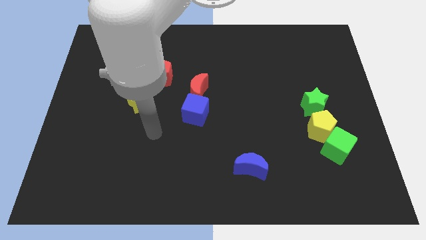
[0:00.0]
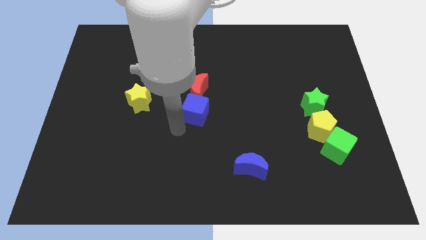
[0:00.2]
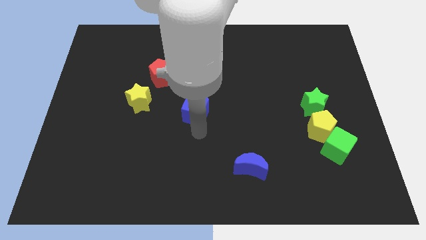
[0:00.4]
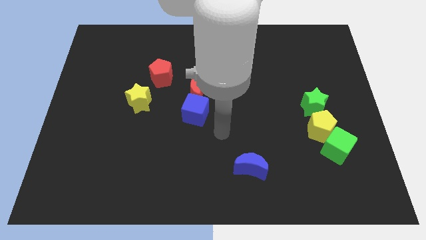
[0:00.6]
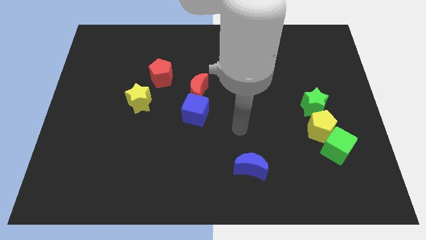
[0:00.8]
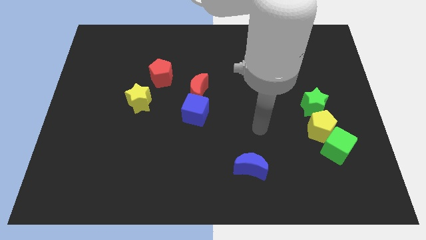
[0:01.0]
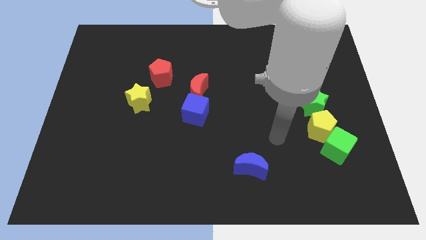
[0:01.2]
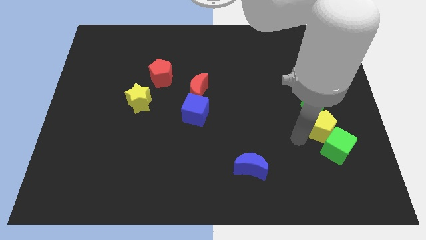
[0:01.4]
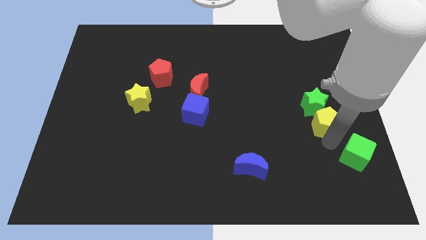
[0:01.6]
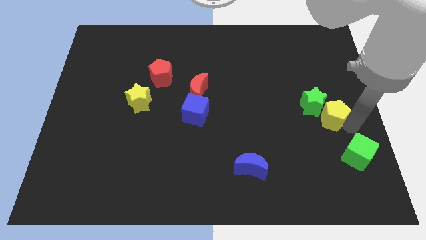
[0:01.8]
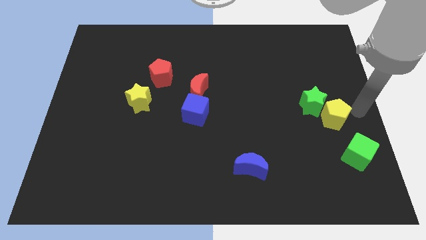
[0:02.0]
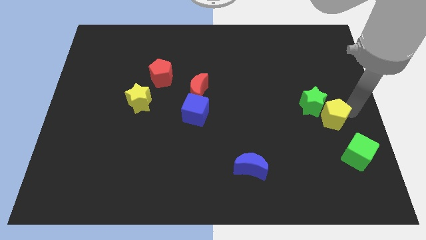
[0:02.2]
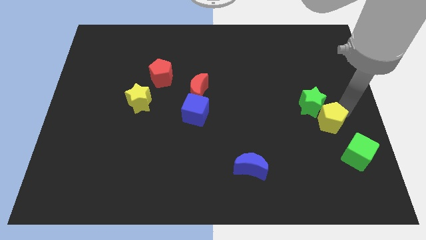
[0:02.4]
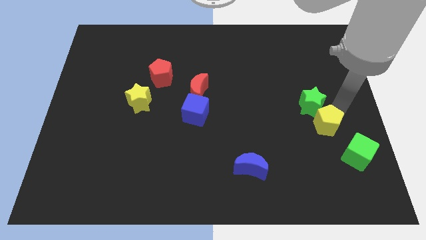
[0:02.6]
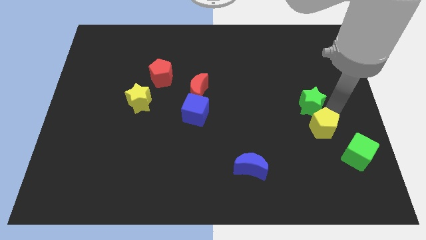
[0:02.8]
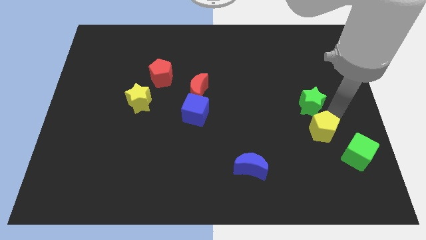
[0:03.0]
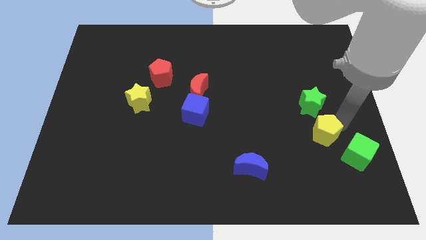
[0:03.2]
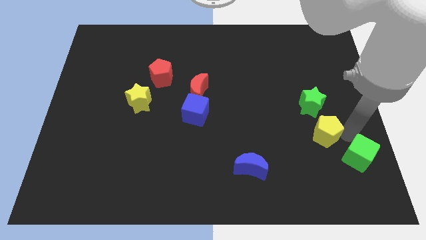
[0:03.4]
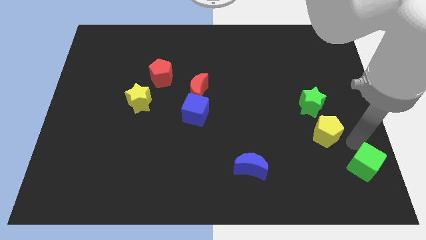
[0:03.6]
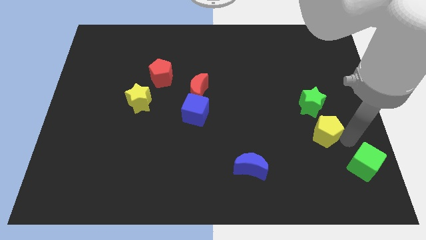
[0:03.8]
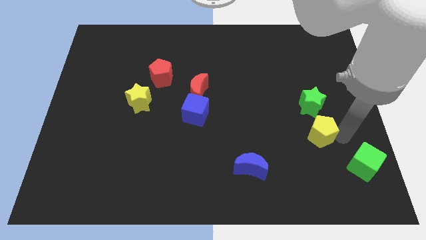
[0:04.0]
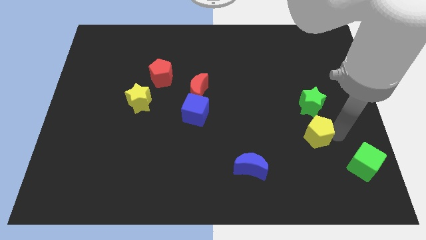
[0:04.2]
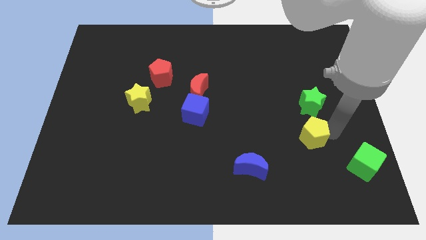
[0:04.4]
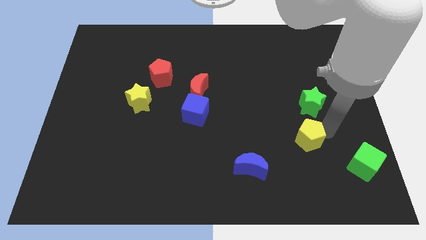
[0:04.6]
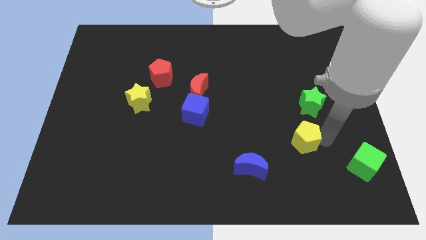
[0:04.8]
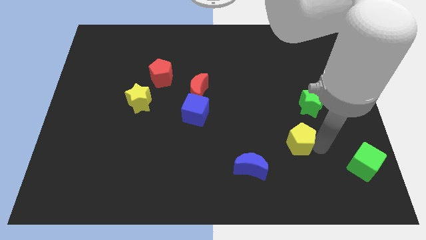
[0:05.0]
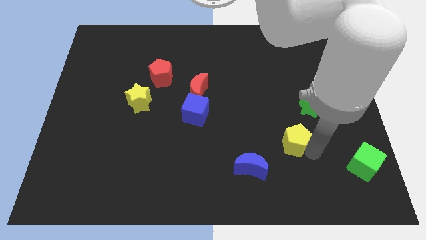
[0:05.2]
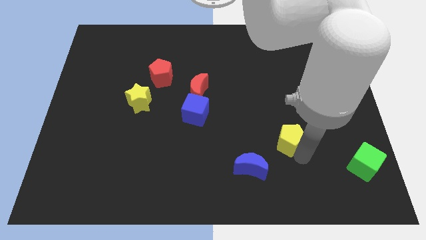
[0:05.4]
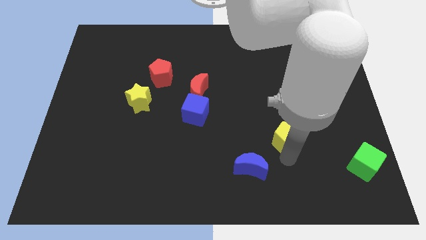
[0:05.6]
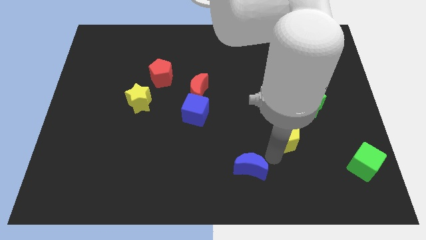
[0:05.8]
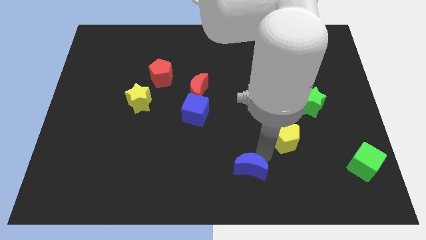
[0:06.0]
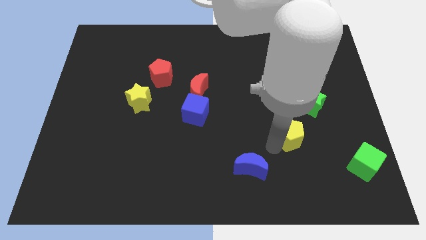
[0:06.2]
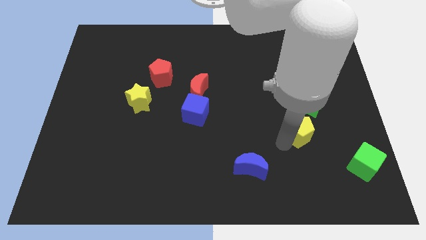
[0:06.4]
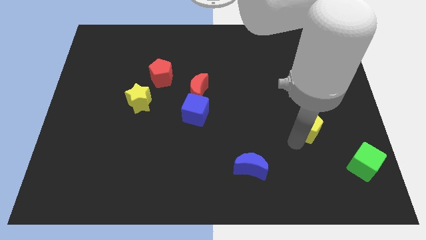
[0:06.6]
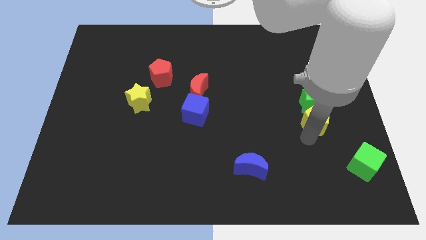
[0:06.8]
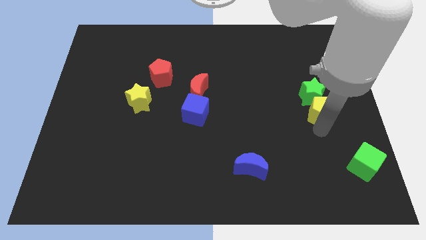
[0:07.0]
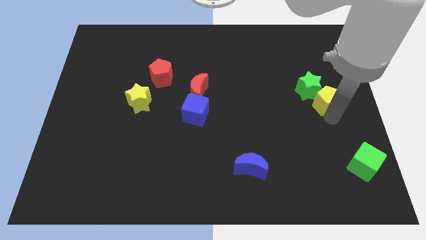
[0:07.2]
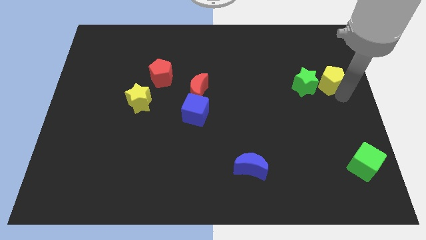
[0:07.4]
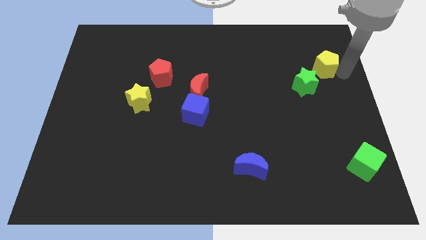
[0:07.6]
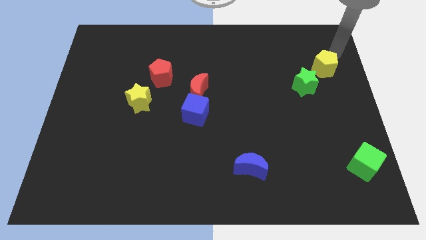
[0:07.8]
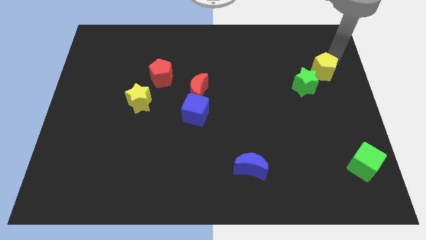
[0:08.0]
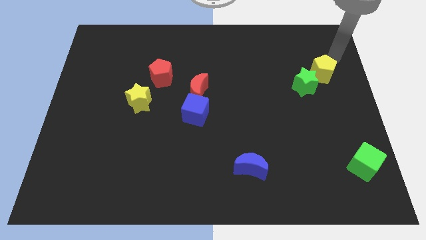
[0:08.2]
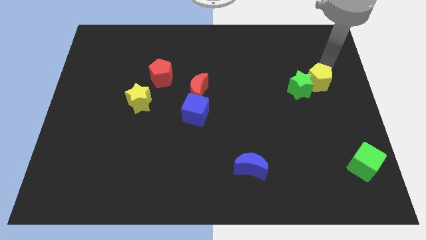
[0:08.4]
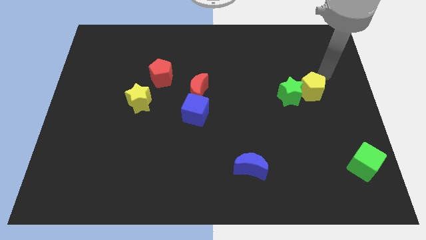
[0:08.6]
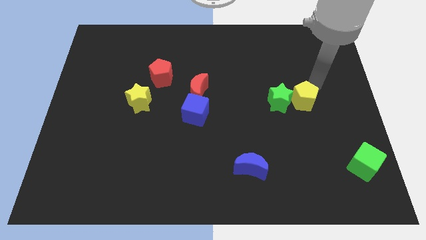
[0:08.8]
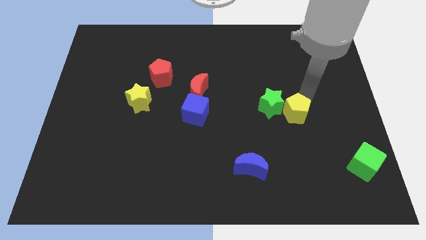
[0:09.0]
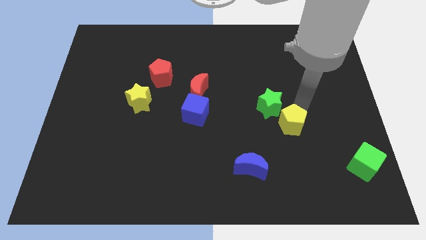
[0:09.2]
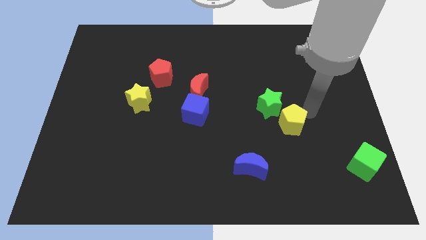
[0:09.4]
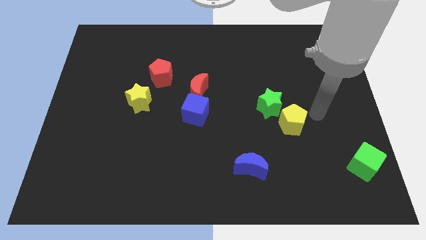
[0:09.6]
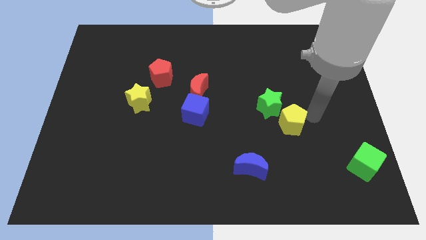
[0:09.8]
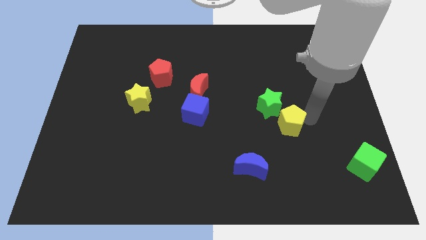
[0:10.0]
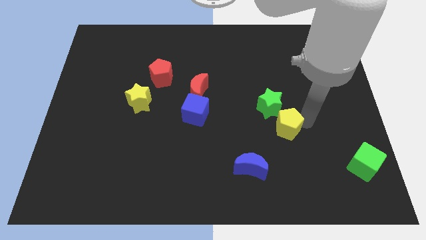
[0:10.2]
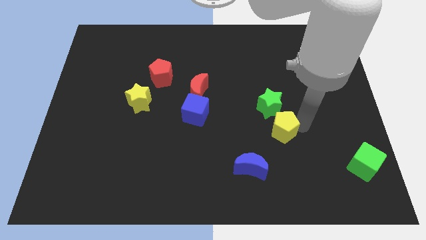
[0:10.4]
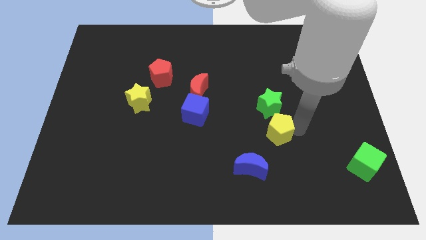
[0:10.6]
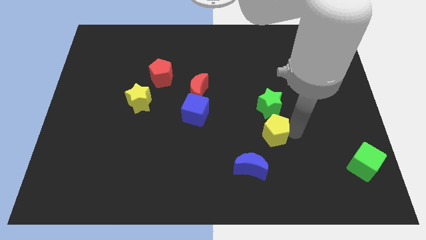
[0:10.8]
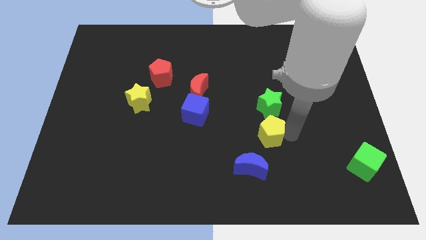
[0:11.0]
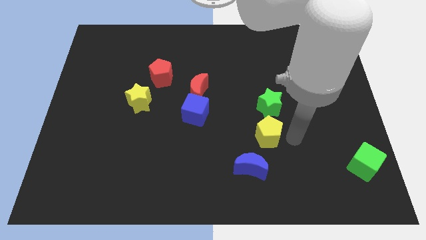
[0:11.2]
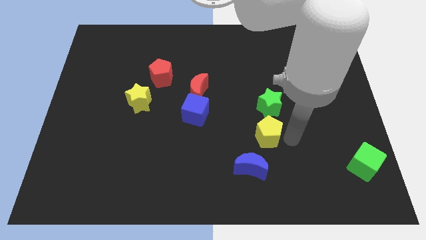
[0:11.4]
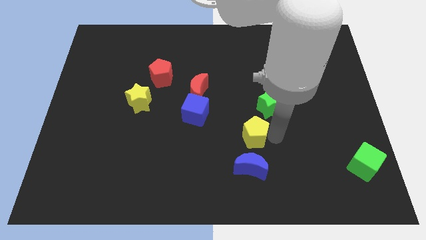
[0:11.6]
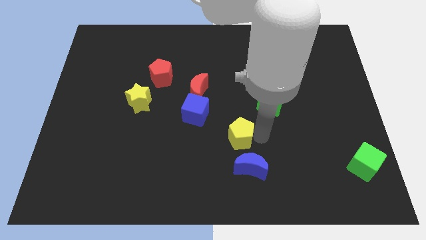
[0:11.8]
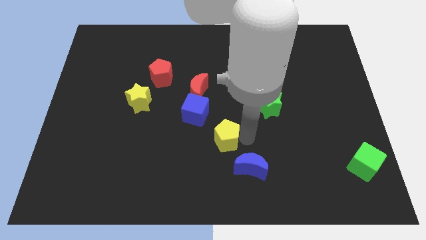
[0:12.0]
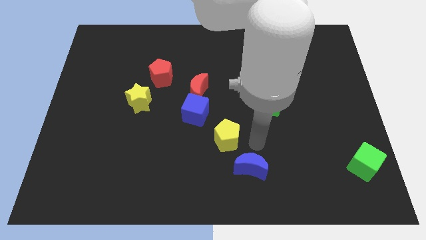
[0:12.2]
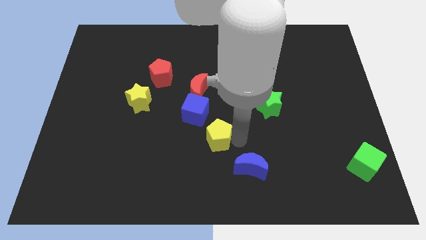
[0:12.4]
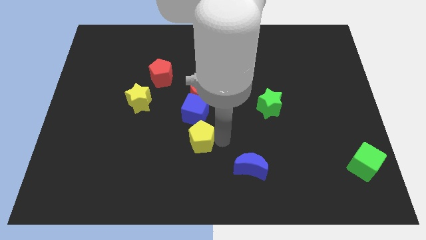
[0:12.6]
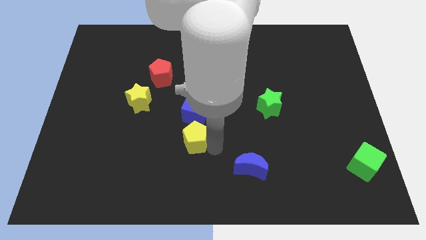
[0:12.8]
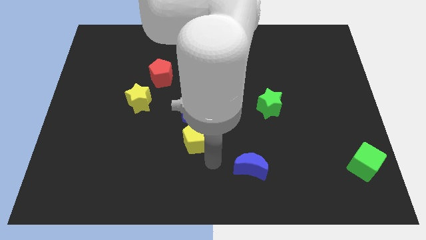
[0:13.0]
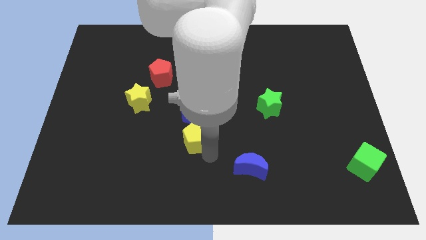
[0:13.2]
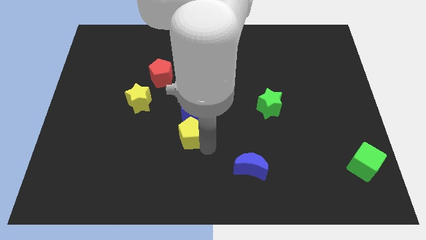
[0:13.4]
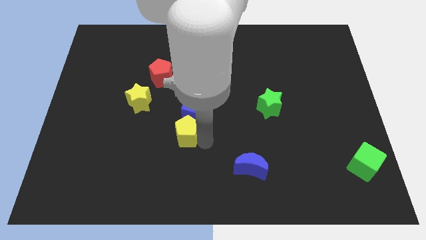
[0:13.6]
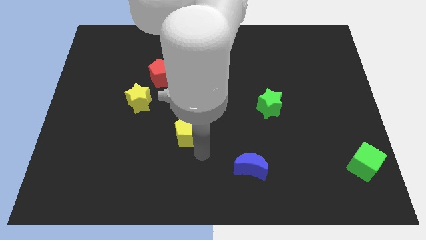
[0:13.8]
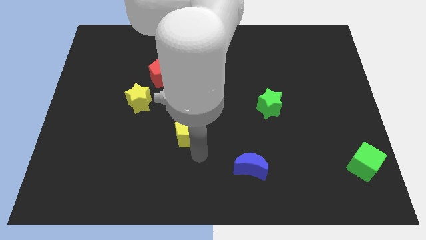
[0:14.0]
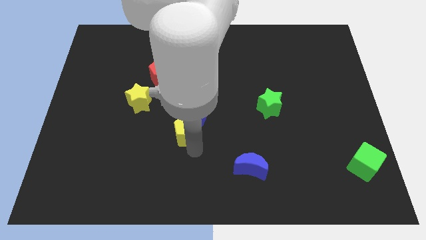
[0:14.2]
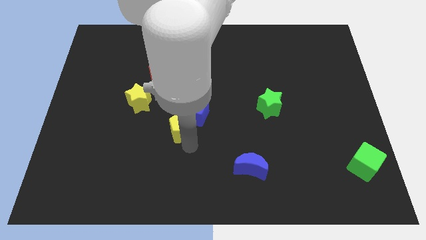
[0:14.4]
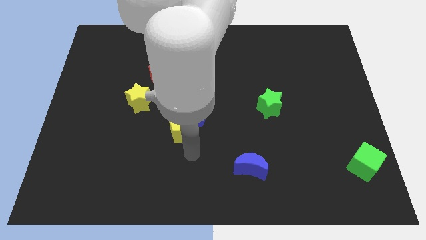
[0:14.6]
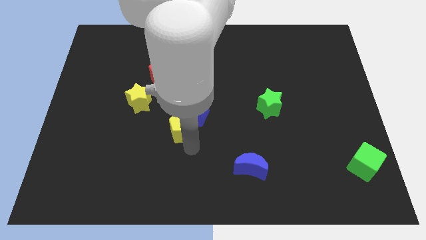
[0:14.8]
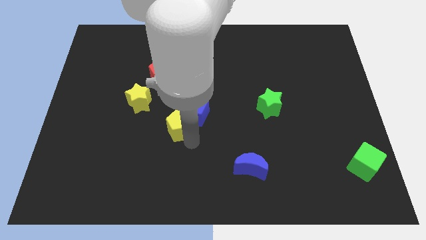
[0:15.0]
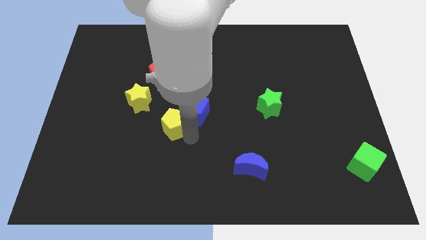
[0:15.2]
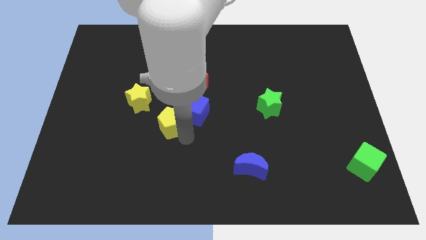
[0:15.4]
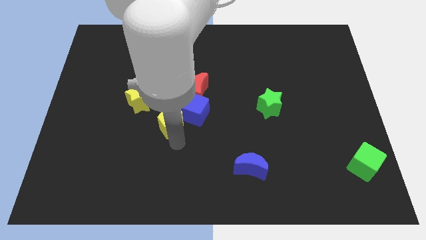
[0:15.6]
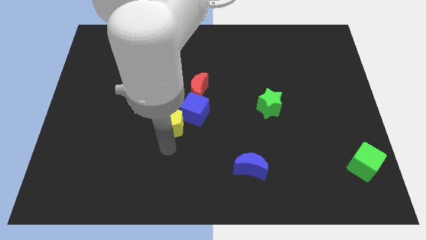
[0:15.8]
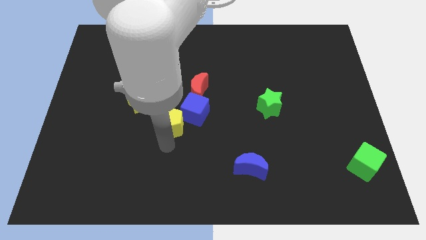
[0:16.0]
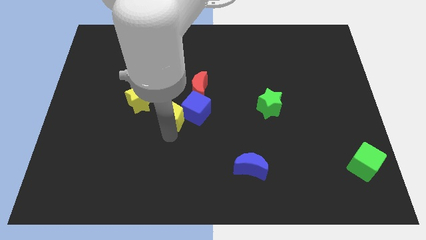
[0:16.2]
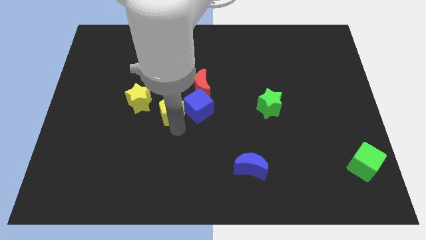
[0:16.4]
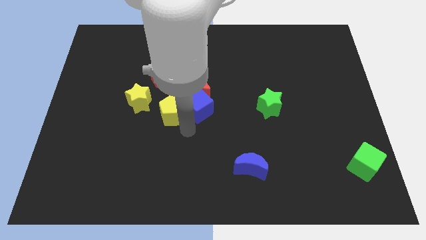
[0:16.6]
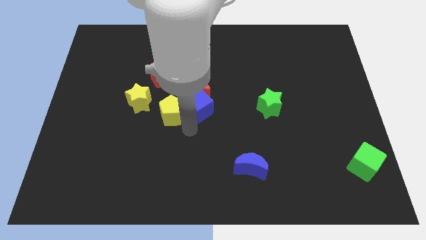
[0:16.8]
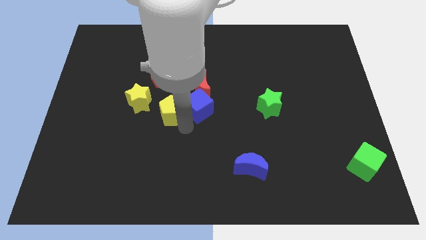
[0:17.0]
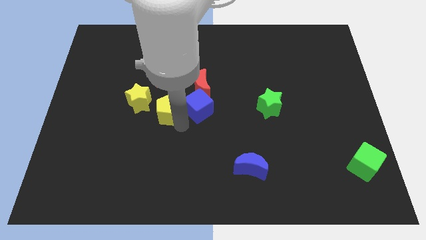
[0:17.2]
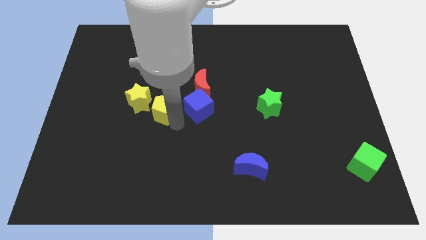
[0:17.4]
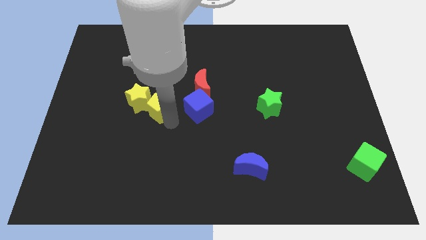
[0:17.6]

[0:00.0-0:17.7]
slide the yellow pentagon towards the yellow star
